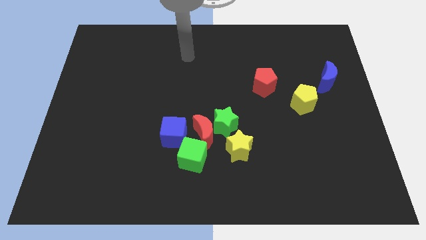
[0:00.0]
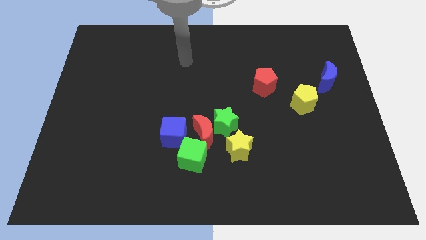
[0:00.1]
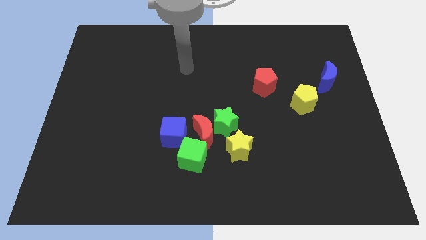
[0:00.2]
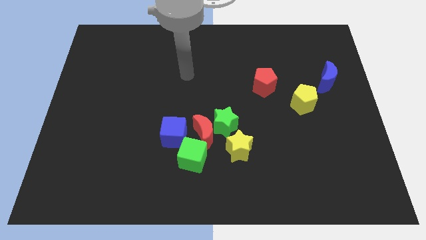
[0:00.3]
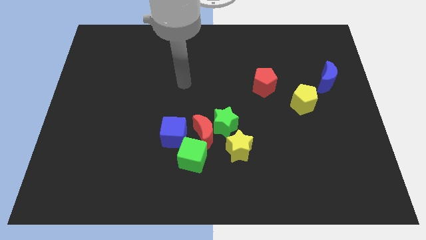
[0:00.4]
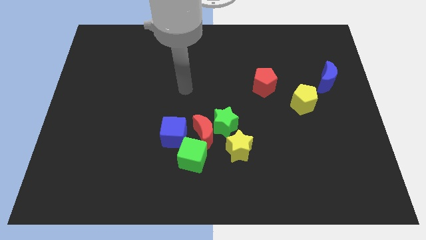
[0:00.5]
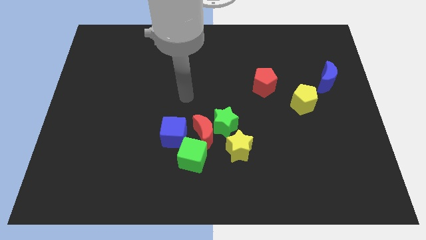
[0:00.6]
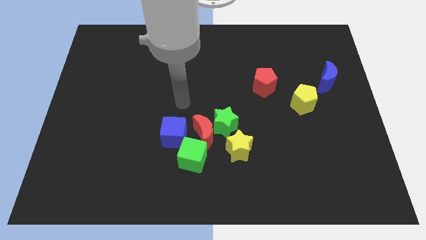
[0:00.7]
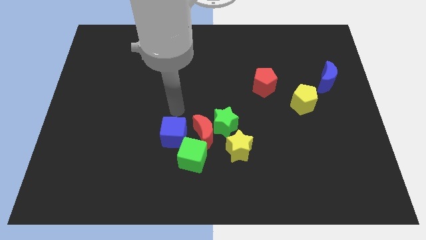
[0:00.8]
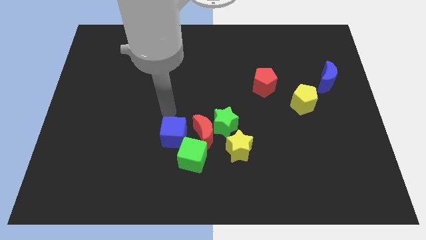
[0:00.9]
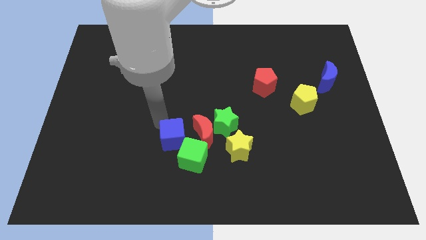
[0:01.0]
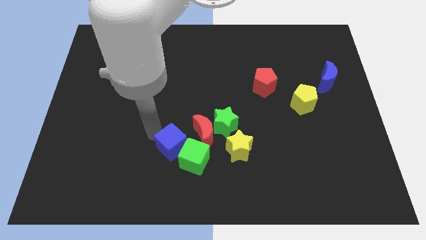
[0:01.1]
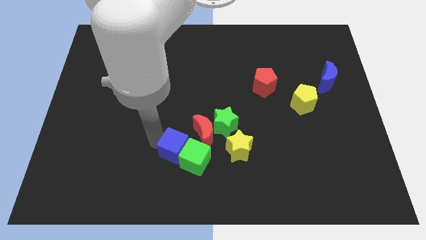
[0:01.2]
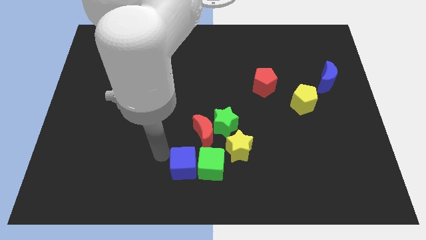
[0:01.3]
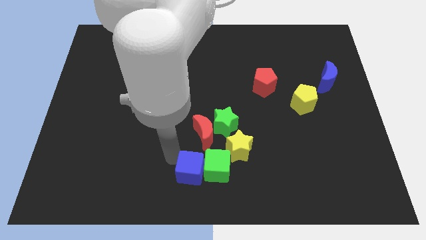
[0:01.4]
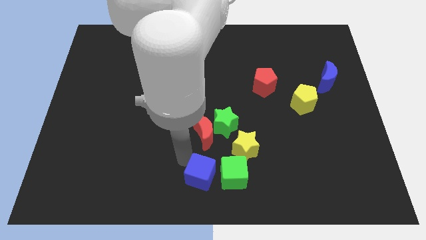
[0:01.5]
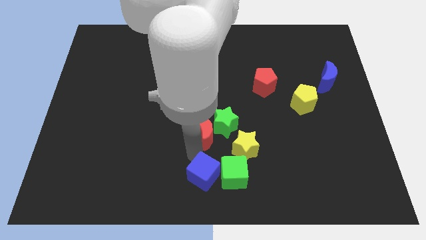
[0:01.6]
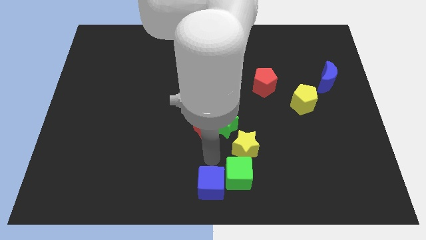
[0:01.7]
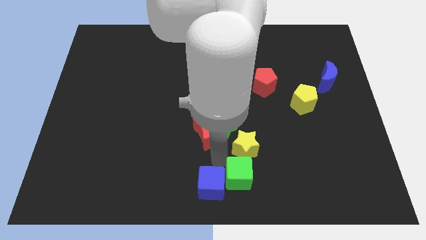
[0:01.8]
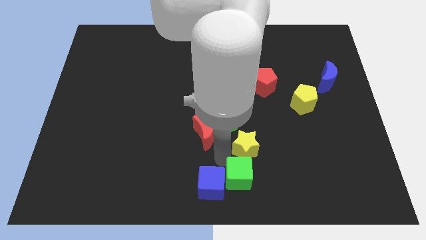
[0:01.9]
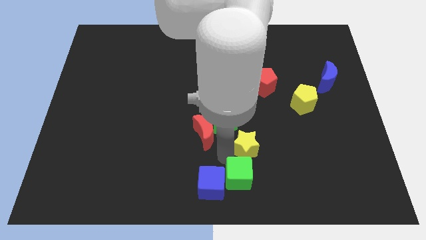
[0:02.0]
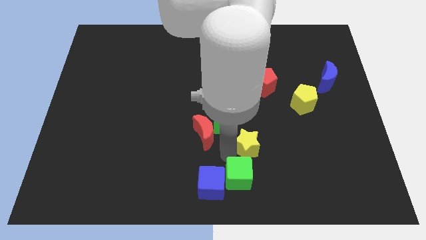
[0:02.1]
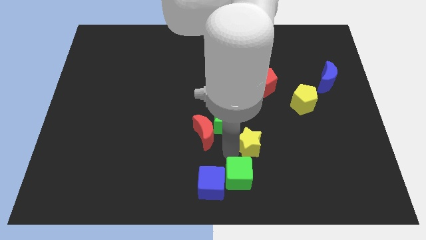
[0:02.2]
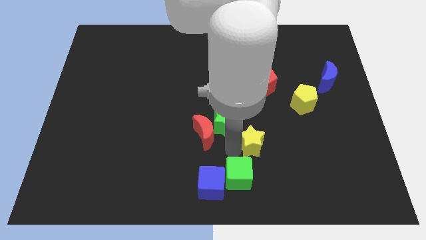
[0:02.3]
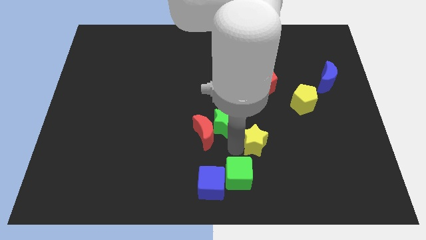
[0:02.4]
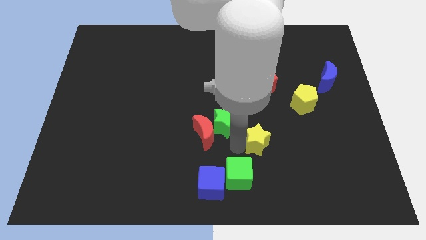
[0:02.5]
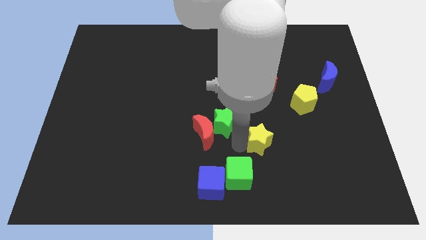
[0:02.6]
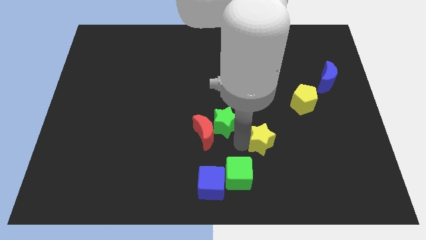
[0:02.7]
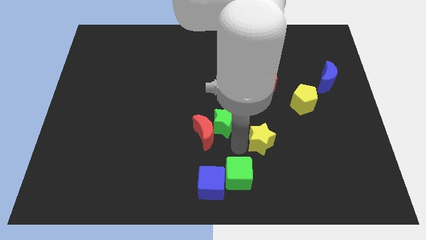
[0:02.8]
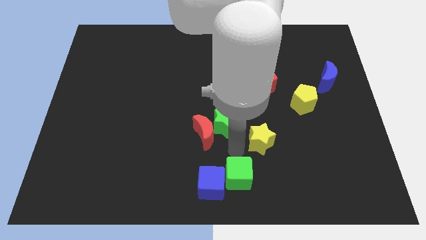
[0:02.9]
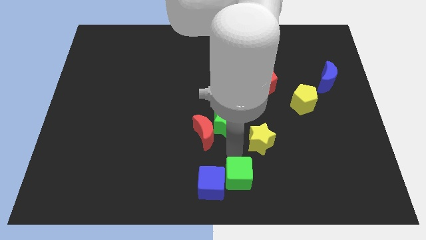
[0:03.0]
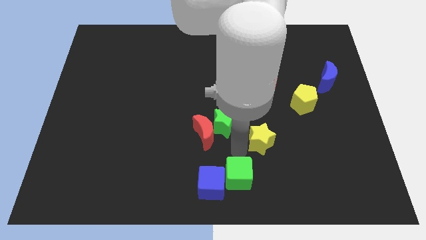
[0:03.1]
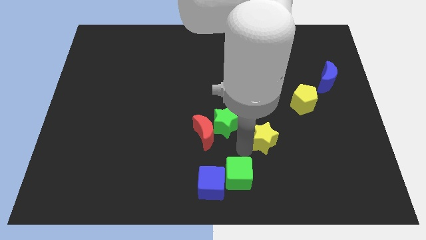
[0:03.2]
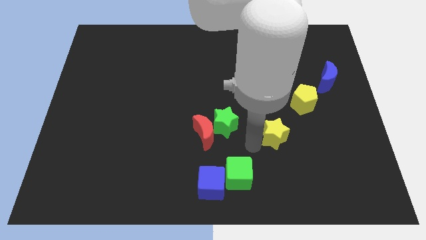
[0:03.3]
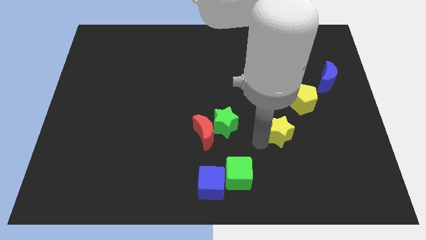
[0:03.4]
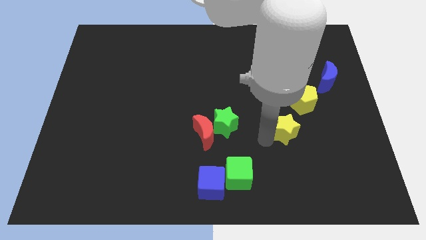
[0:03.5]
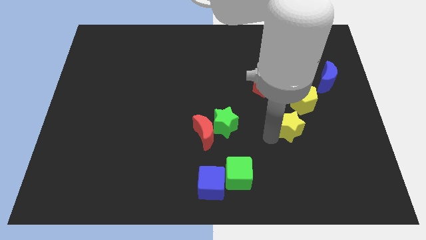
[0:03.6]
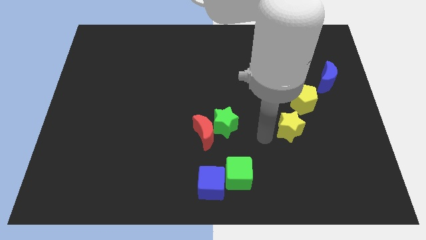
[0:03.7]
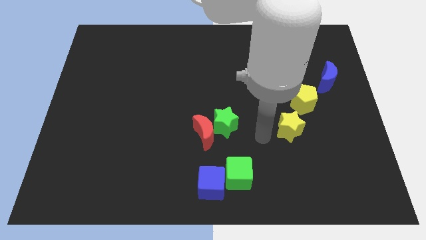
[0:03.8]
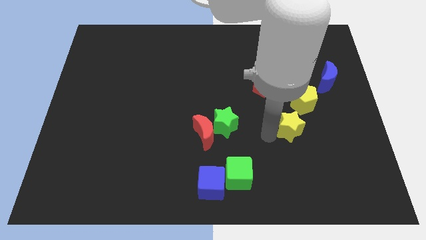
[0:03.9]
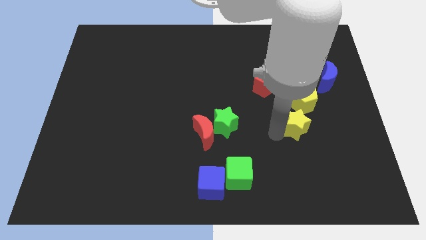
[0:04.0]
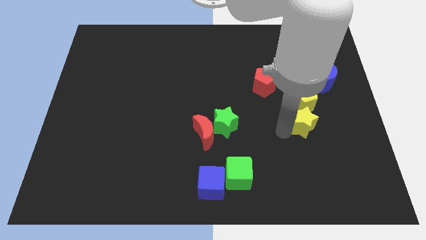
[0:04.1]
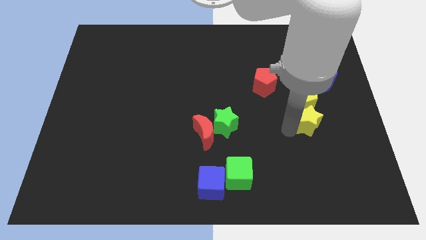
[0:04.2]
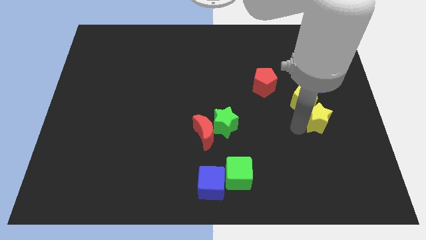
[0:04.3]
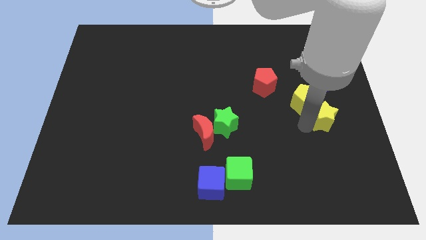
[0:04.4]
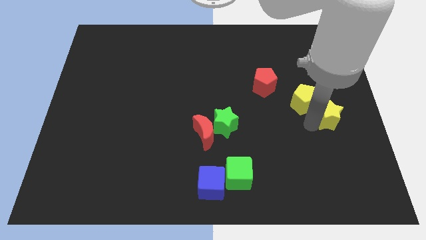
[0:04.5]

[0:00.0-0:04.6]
put the yellow star to the right side of the board

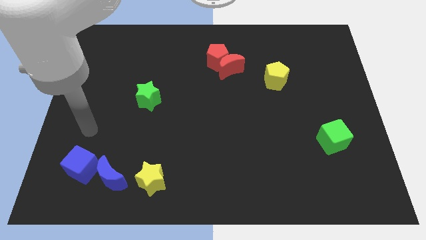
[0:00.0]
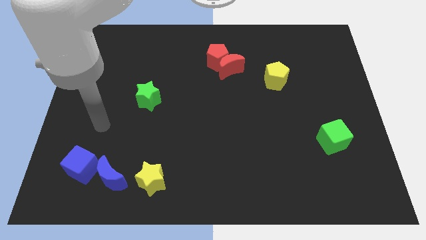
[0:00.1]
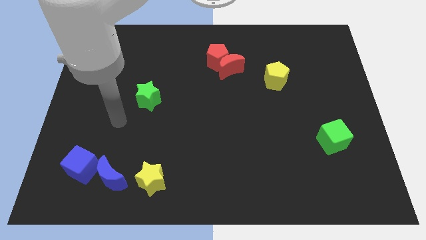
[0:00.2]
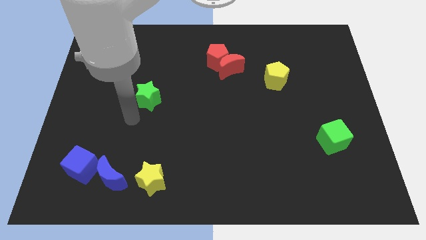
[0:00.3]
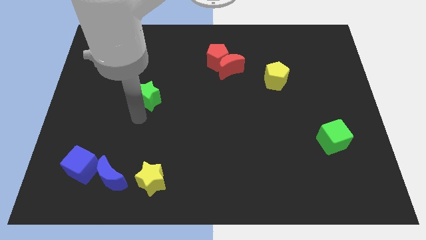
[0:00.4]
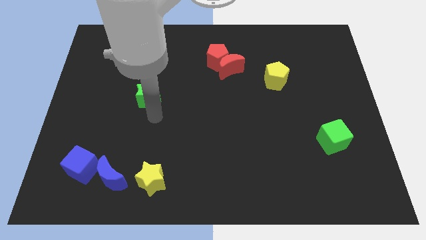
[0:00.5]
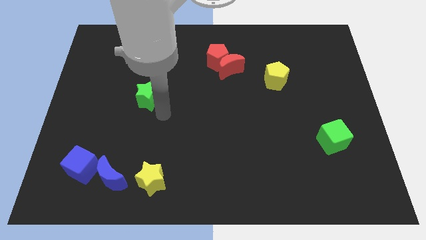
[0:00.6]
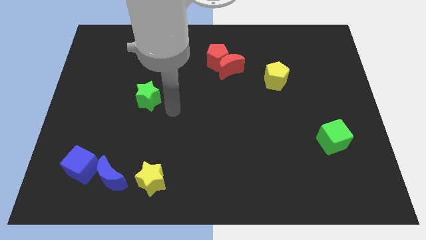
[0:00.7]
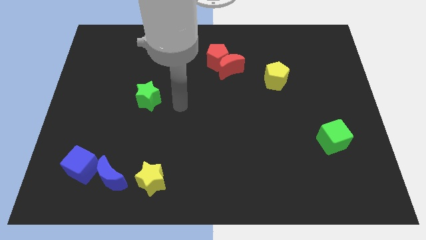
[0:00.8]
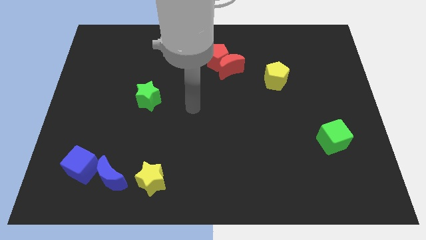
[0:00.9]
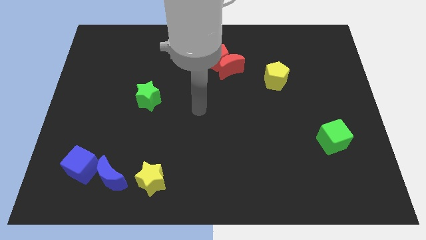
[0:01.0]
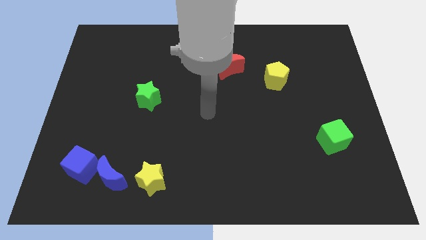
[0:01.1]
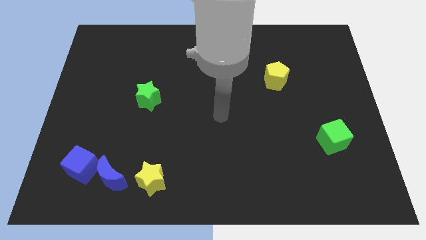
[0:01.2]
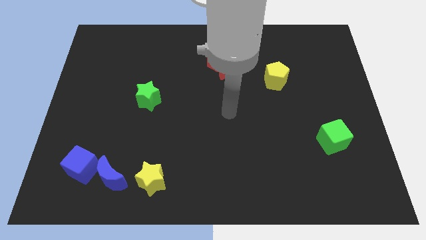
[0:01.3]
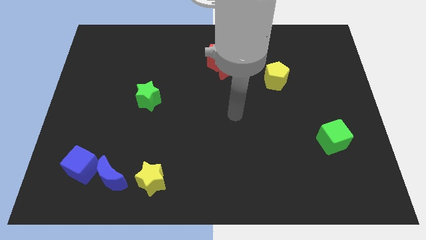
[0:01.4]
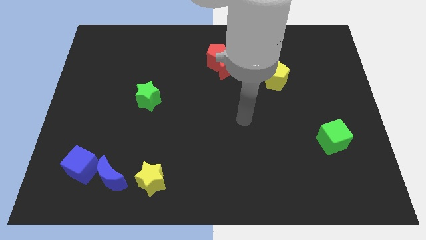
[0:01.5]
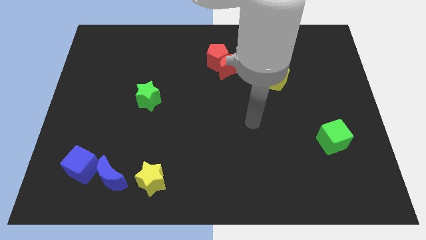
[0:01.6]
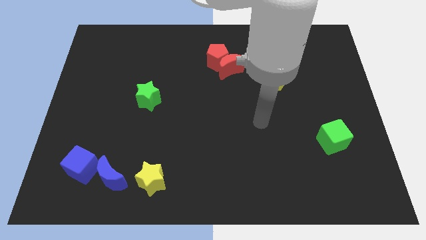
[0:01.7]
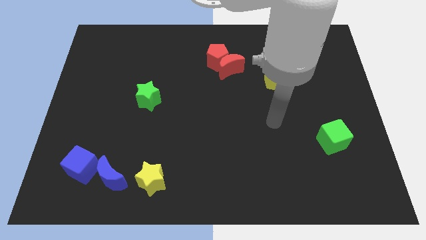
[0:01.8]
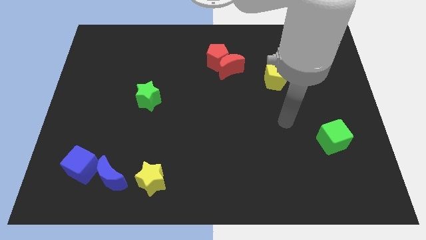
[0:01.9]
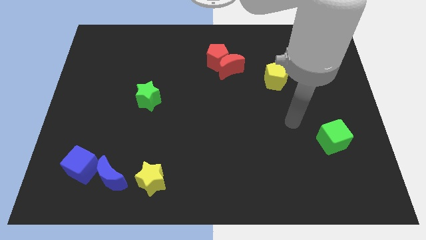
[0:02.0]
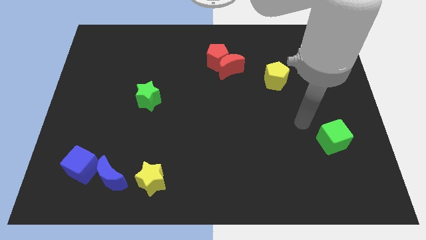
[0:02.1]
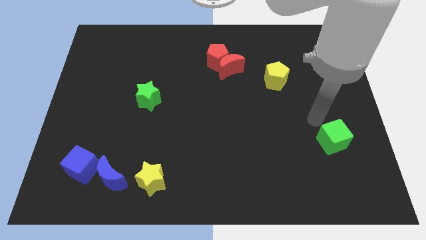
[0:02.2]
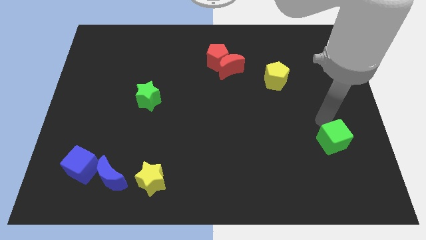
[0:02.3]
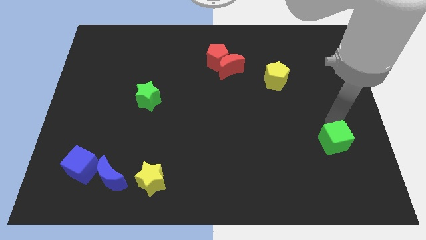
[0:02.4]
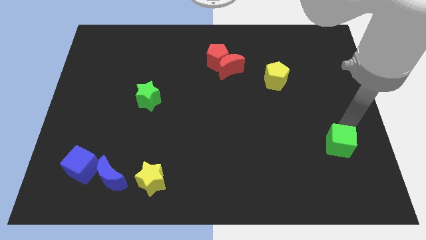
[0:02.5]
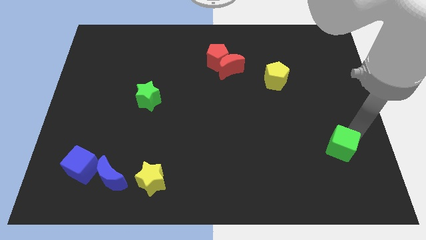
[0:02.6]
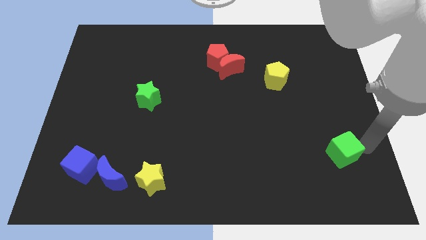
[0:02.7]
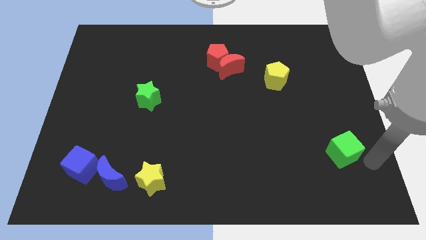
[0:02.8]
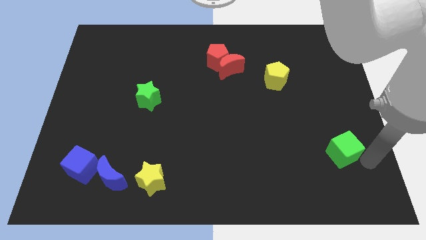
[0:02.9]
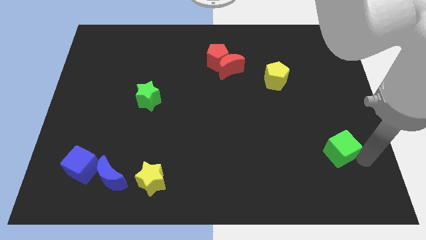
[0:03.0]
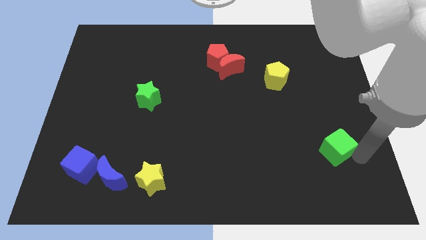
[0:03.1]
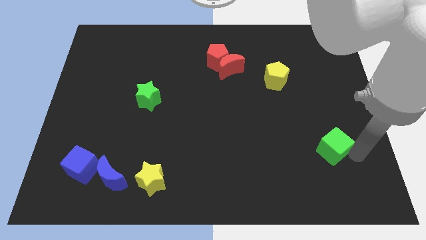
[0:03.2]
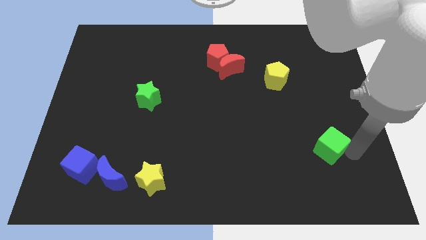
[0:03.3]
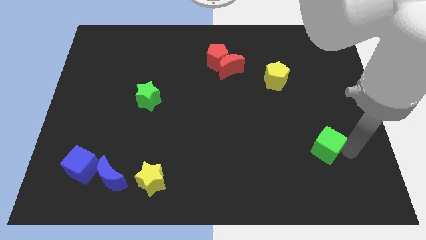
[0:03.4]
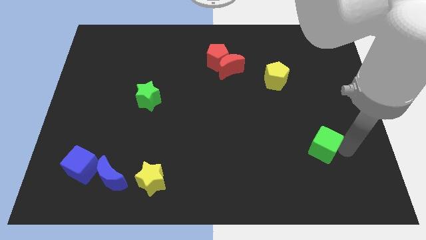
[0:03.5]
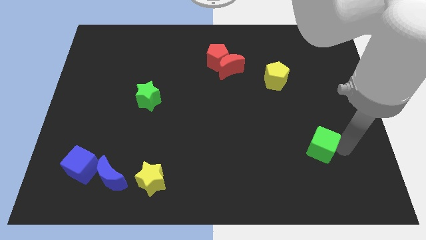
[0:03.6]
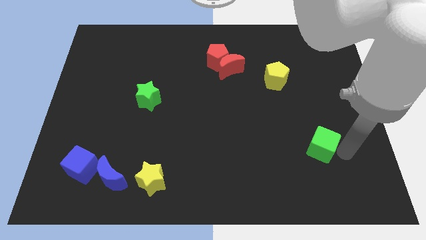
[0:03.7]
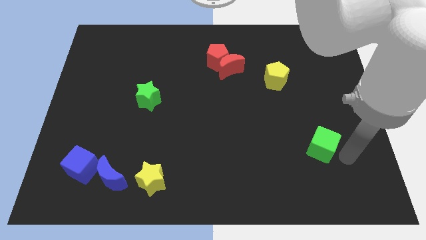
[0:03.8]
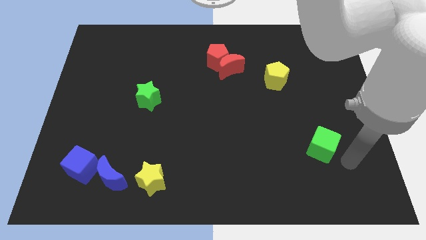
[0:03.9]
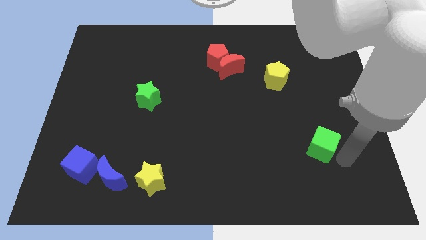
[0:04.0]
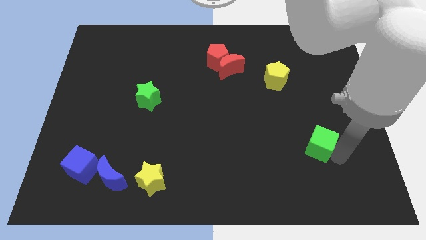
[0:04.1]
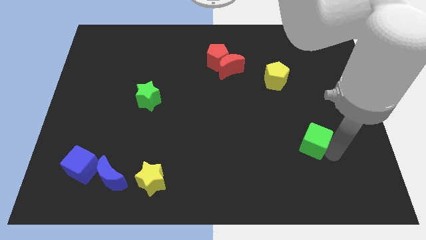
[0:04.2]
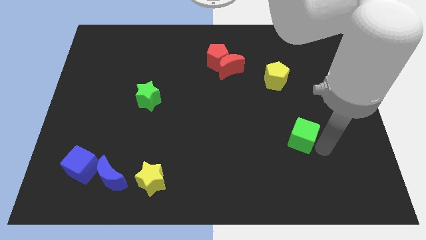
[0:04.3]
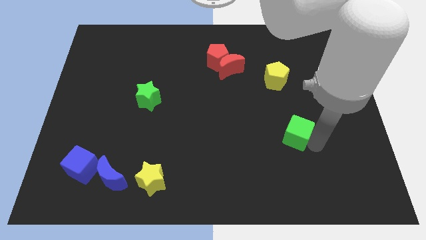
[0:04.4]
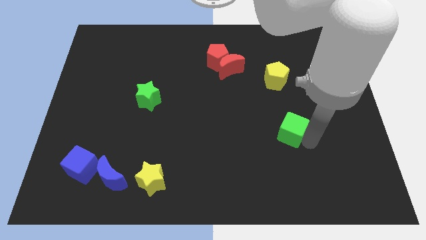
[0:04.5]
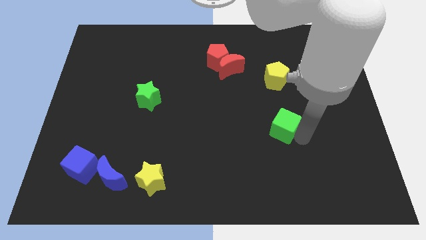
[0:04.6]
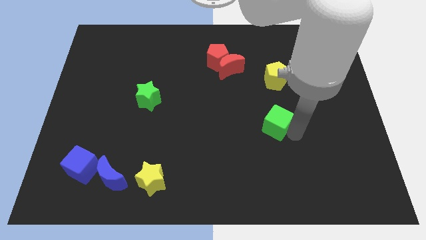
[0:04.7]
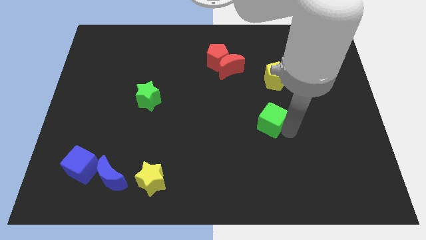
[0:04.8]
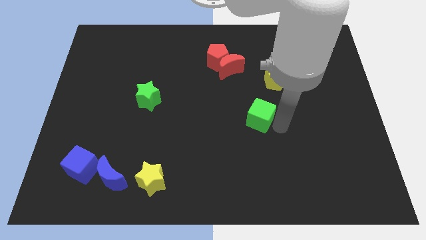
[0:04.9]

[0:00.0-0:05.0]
push the green cube to the middle of the board
